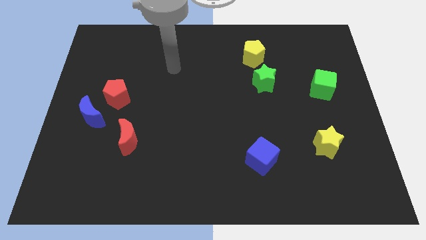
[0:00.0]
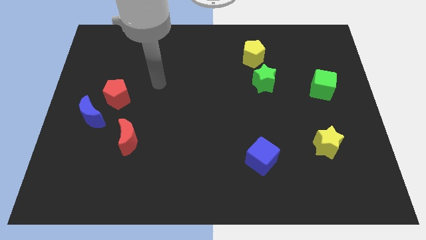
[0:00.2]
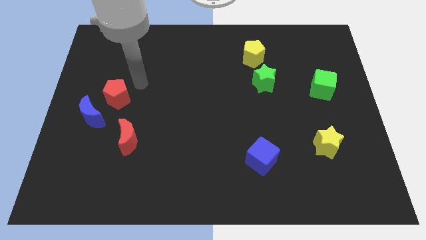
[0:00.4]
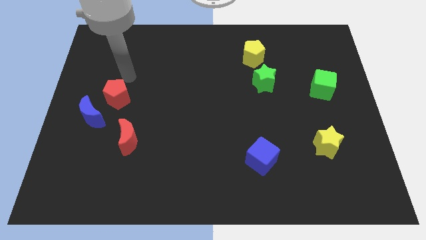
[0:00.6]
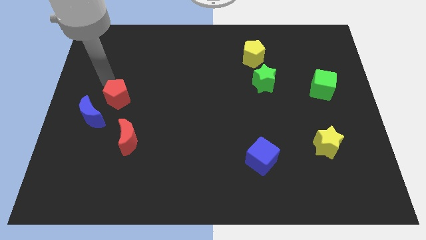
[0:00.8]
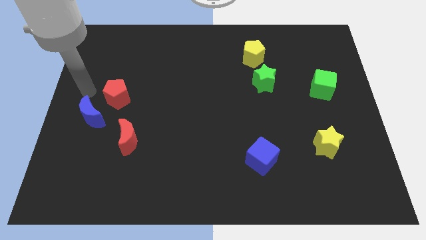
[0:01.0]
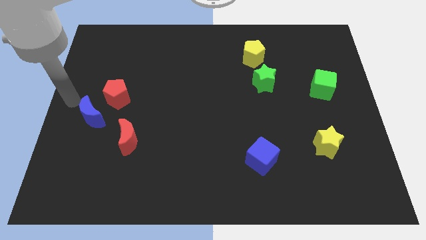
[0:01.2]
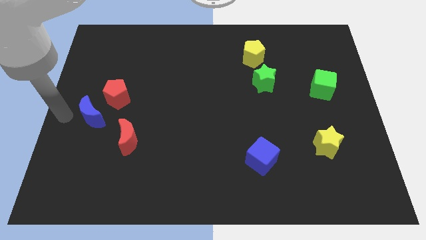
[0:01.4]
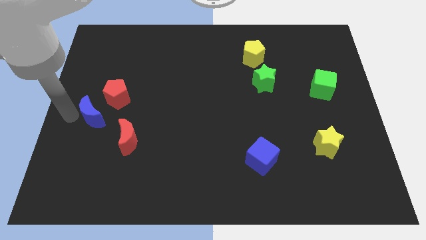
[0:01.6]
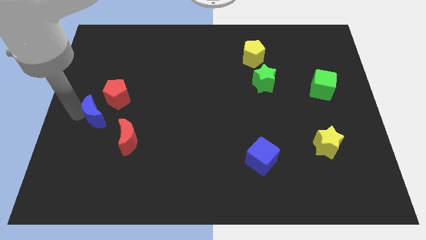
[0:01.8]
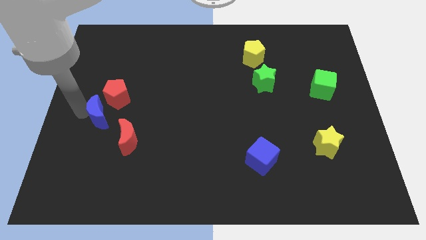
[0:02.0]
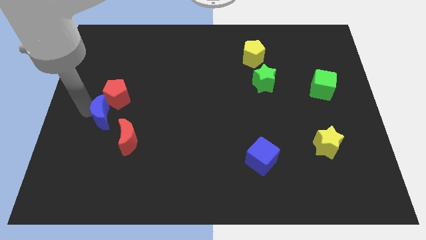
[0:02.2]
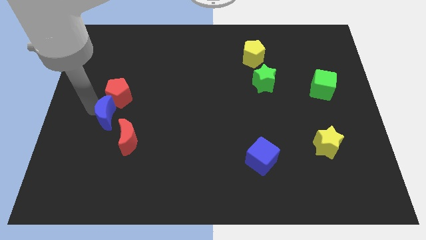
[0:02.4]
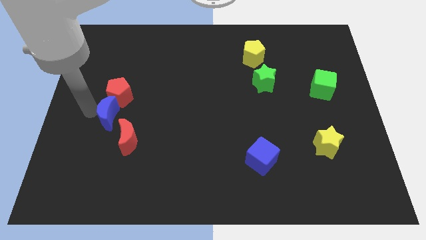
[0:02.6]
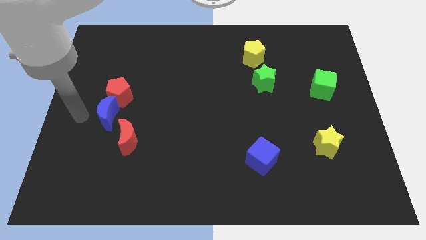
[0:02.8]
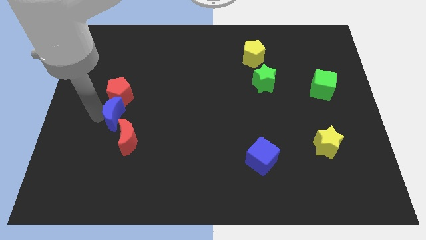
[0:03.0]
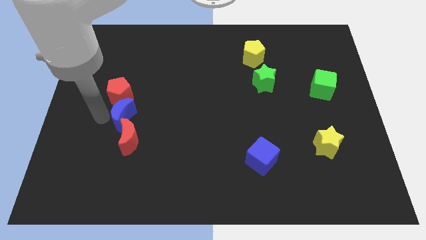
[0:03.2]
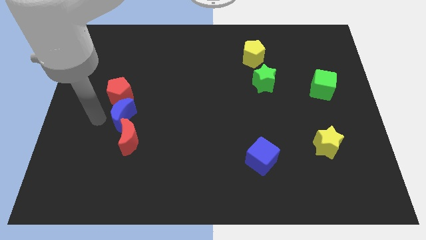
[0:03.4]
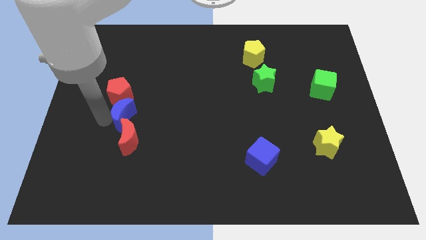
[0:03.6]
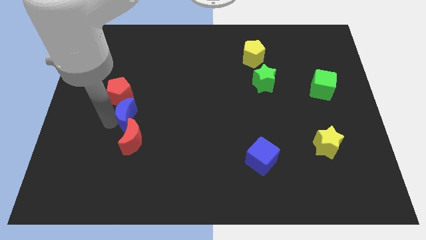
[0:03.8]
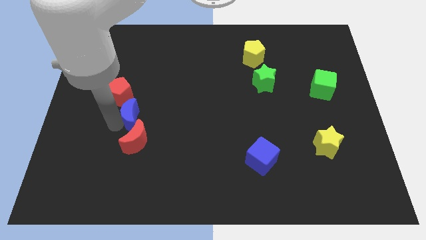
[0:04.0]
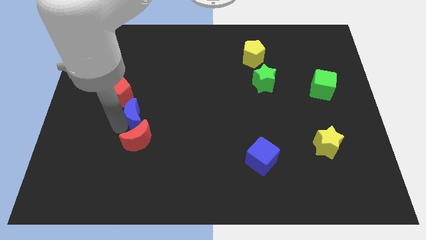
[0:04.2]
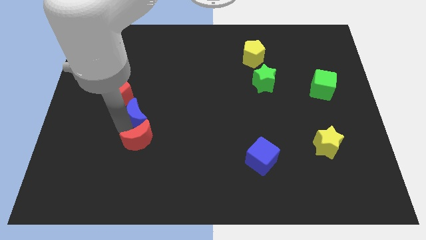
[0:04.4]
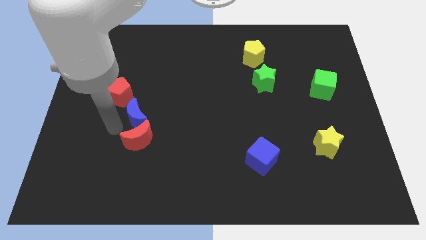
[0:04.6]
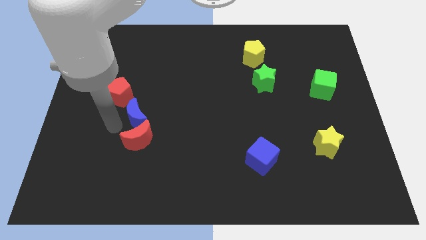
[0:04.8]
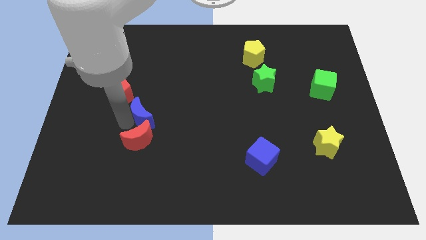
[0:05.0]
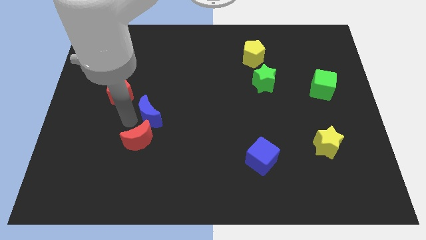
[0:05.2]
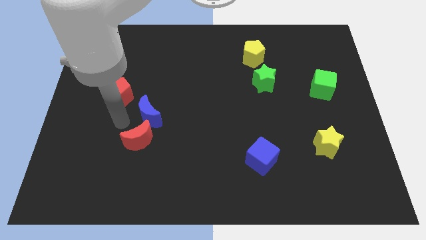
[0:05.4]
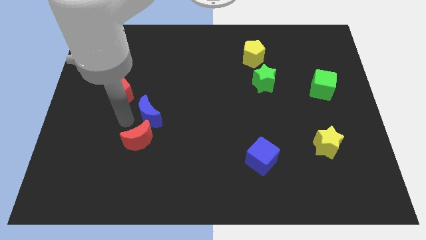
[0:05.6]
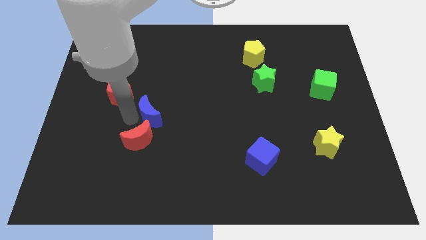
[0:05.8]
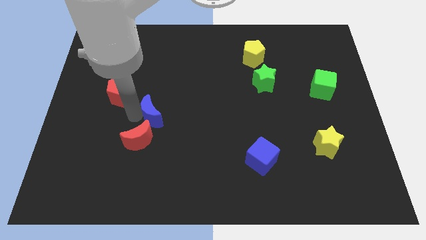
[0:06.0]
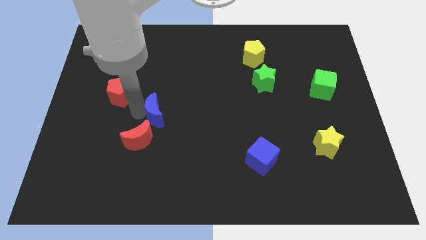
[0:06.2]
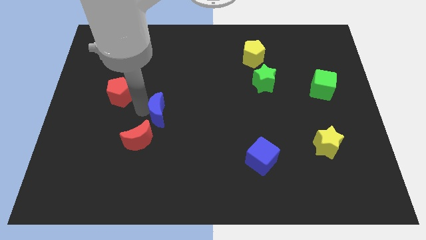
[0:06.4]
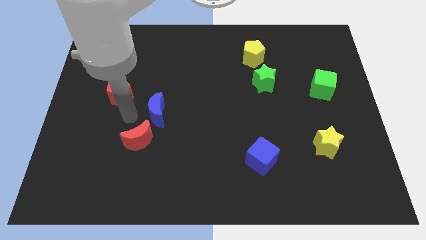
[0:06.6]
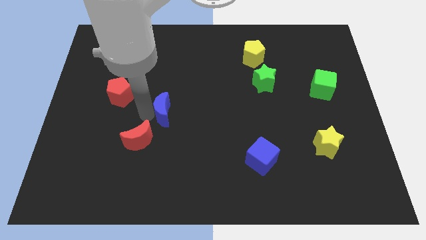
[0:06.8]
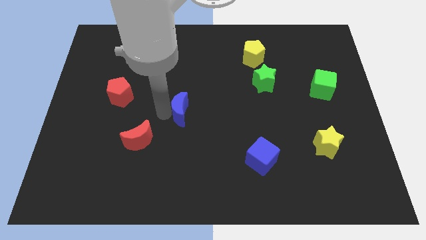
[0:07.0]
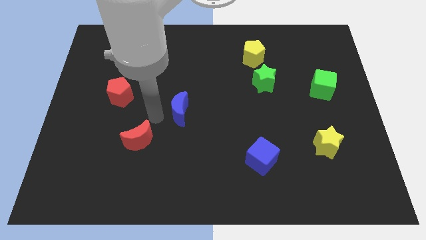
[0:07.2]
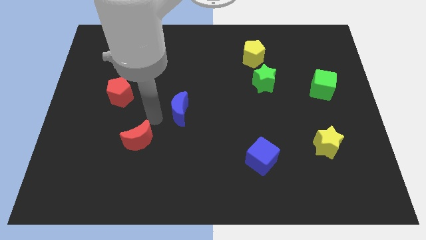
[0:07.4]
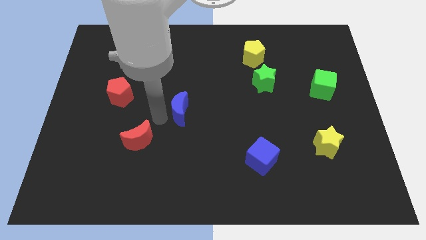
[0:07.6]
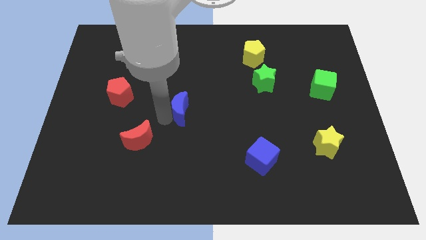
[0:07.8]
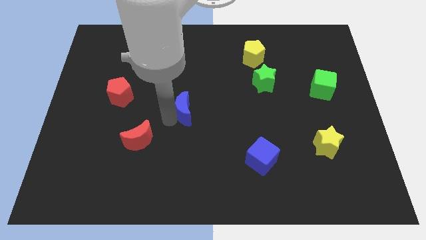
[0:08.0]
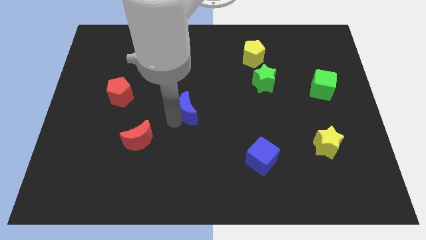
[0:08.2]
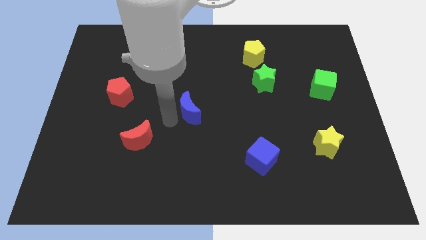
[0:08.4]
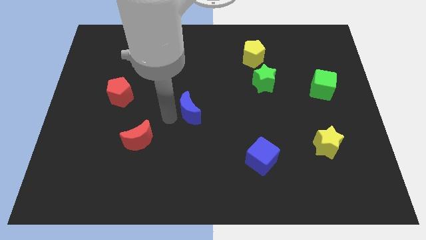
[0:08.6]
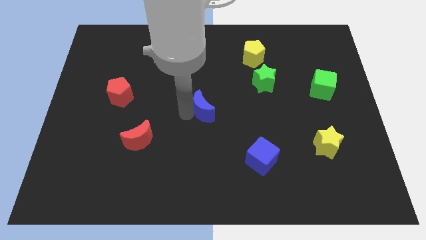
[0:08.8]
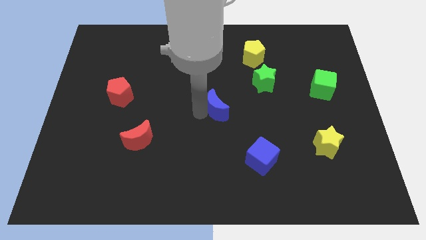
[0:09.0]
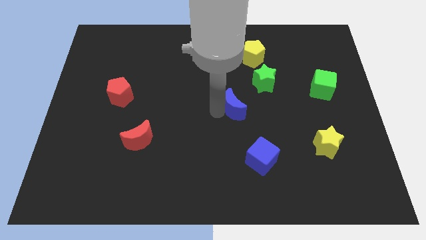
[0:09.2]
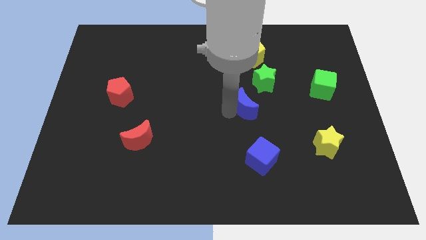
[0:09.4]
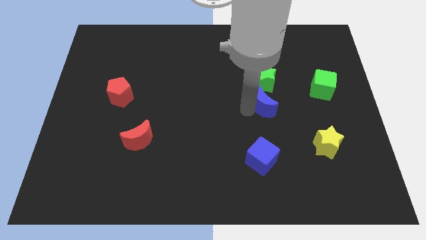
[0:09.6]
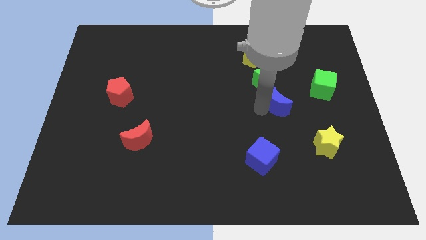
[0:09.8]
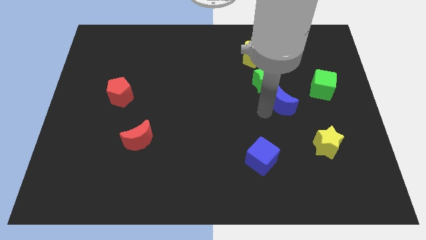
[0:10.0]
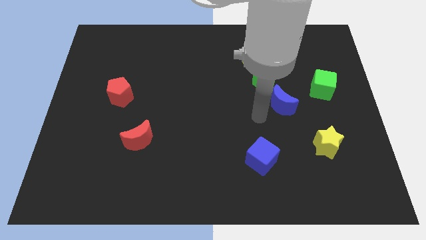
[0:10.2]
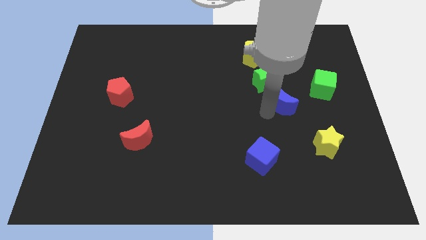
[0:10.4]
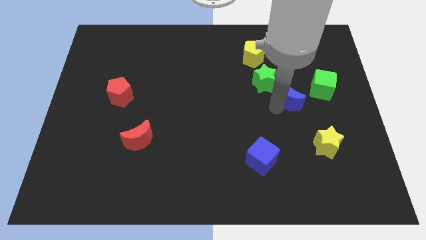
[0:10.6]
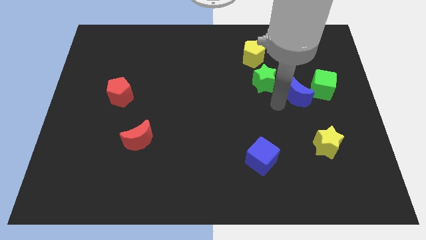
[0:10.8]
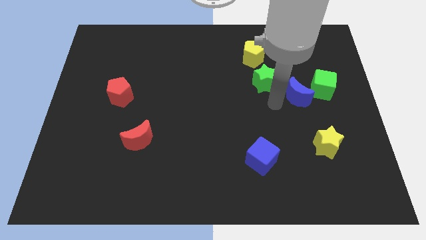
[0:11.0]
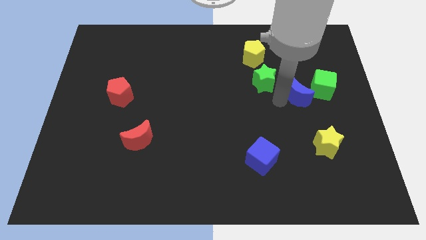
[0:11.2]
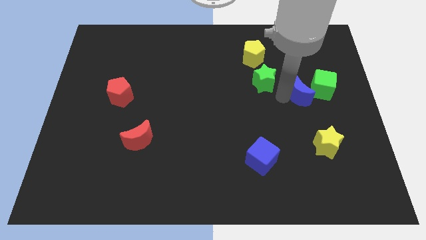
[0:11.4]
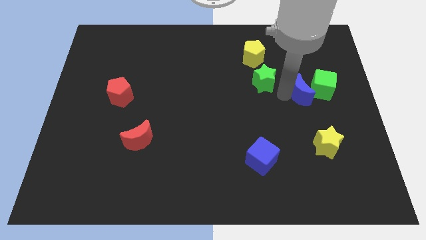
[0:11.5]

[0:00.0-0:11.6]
push the blue moon to the green cube

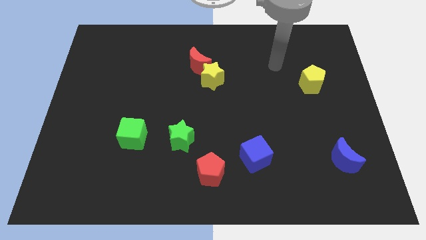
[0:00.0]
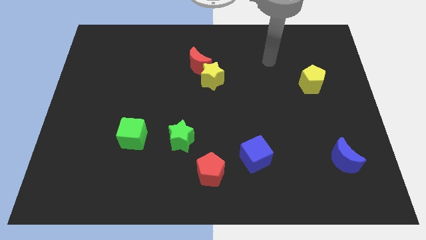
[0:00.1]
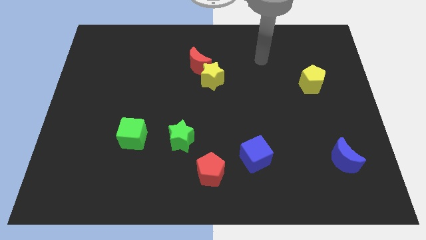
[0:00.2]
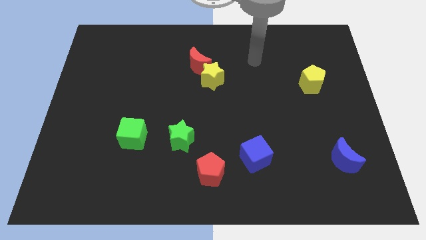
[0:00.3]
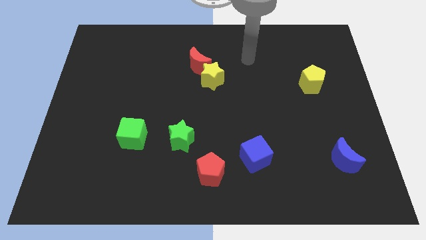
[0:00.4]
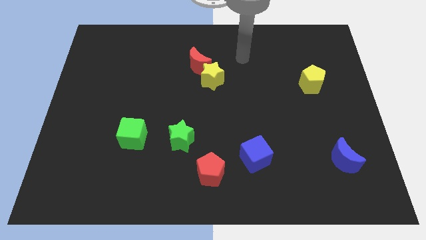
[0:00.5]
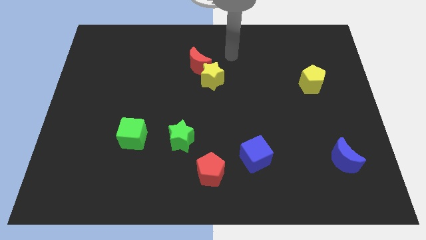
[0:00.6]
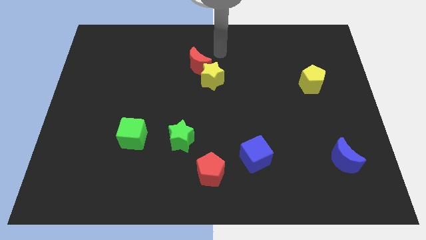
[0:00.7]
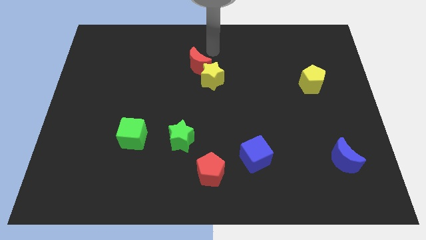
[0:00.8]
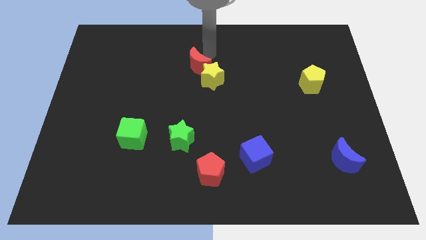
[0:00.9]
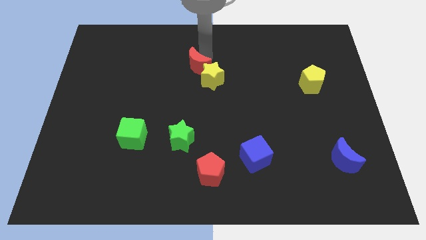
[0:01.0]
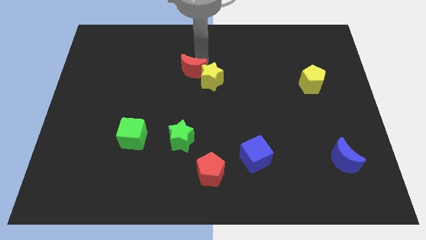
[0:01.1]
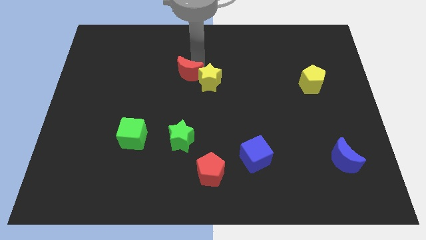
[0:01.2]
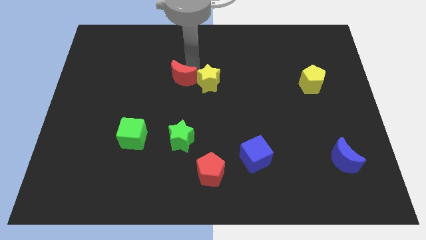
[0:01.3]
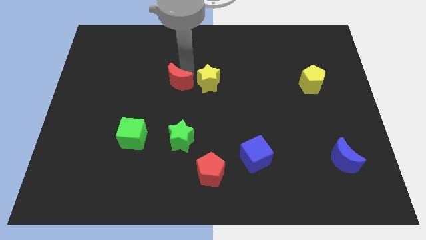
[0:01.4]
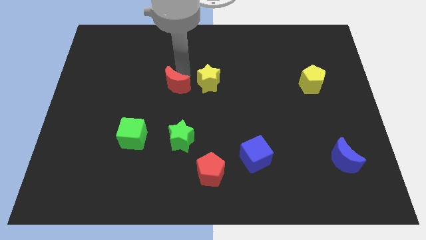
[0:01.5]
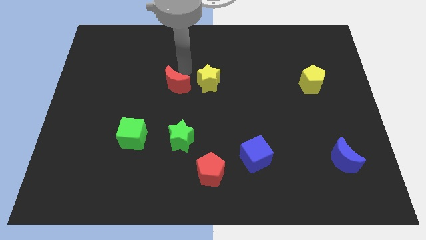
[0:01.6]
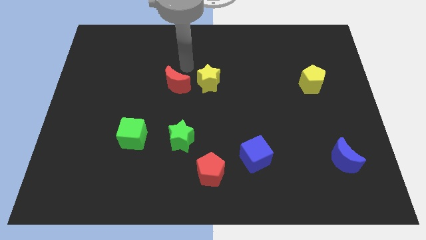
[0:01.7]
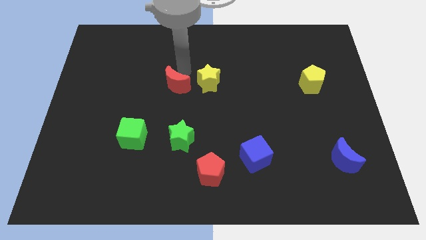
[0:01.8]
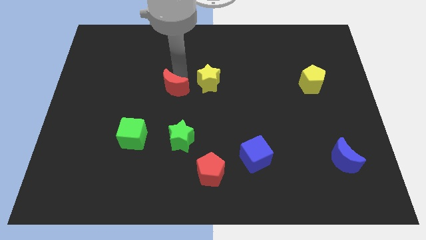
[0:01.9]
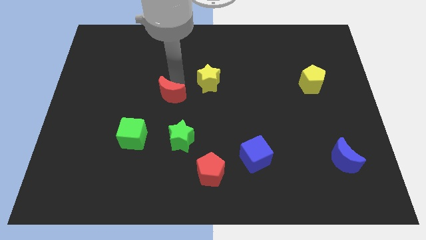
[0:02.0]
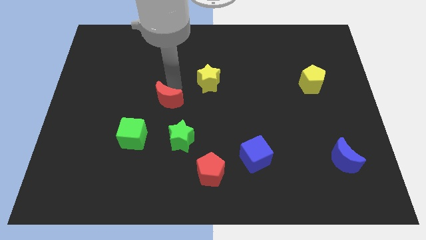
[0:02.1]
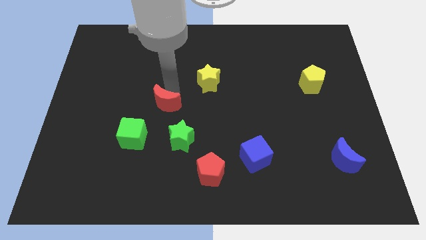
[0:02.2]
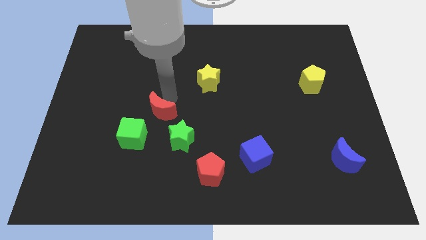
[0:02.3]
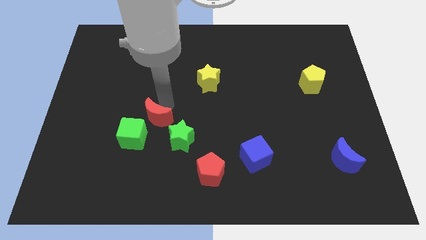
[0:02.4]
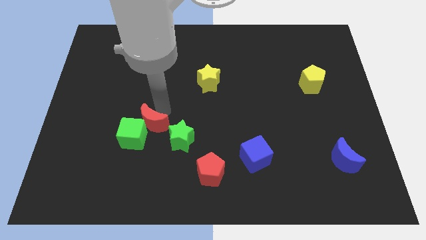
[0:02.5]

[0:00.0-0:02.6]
push the red moon to the green cube
